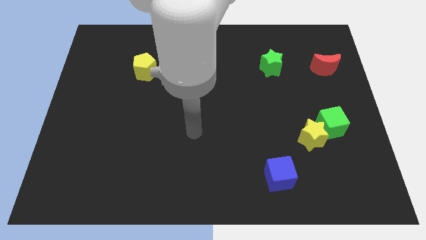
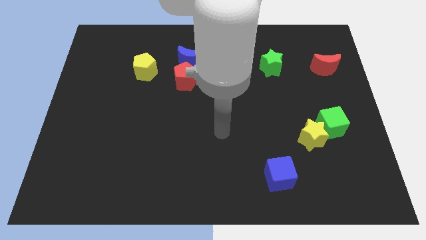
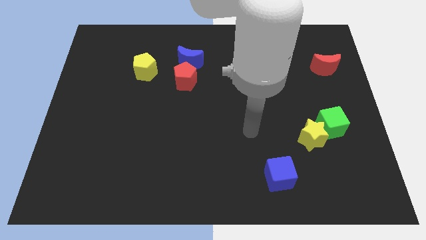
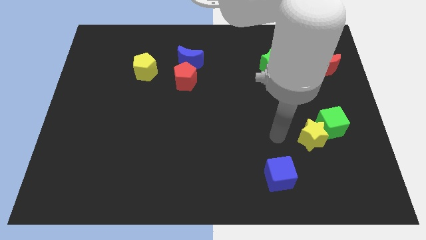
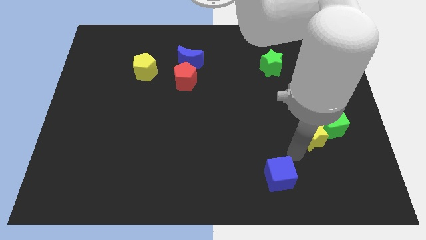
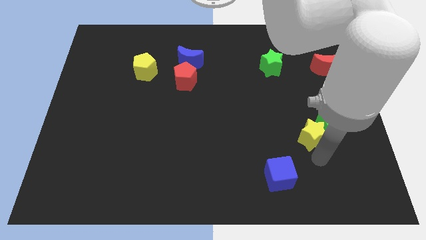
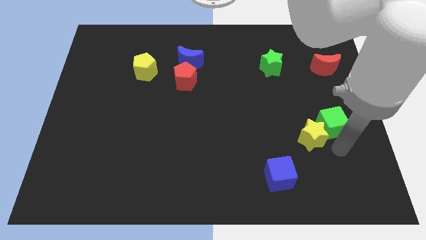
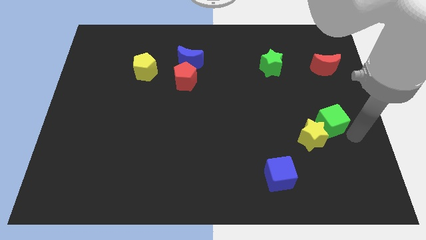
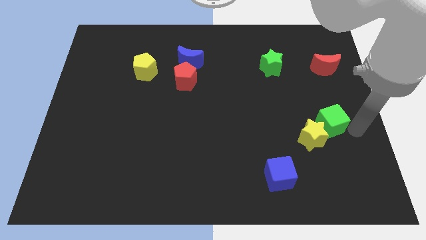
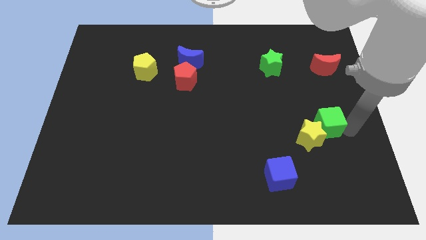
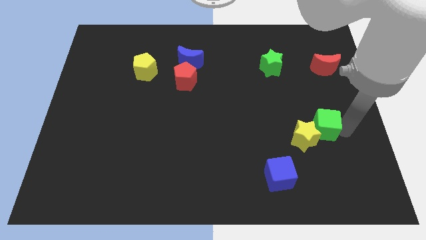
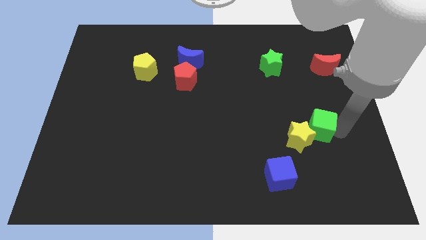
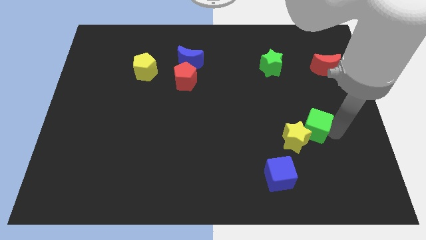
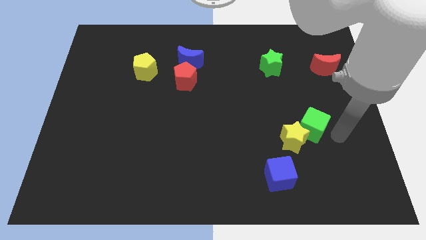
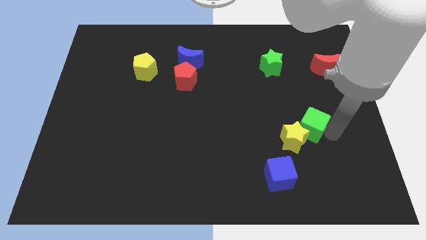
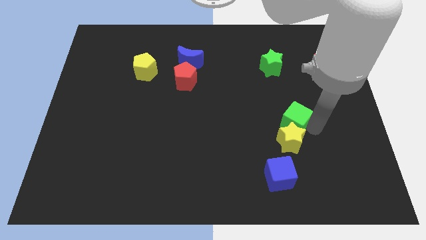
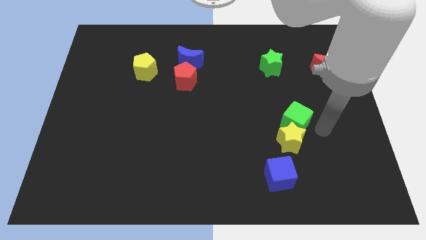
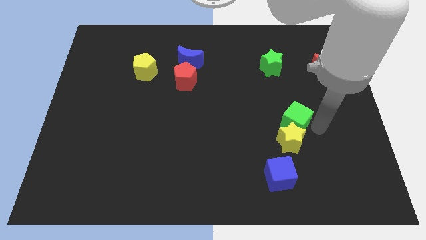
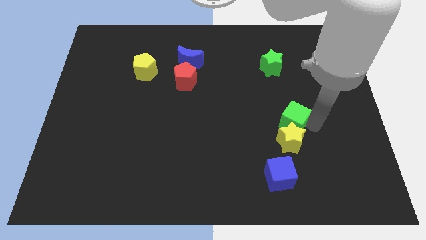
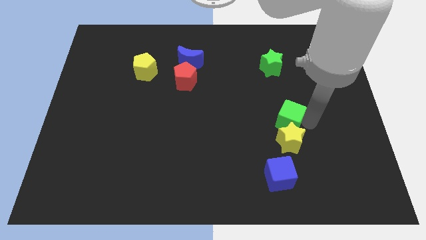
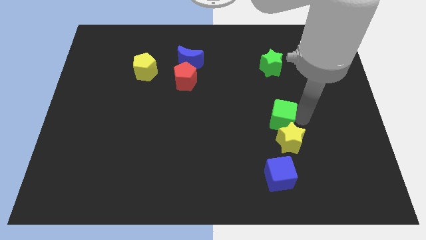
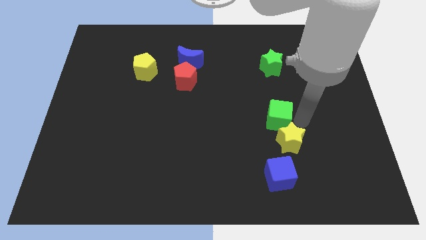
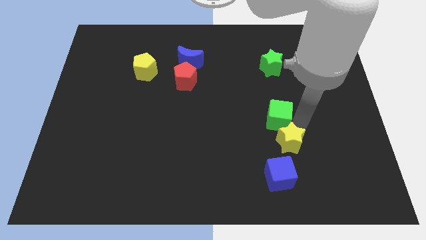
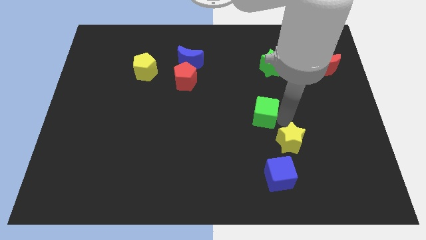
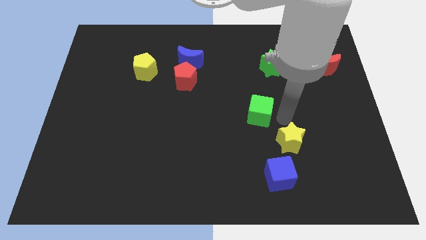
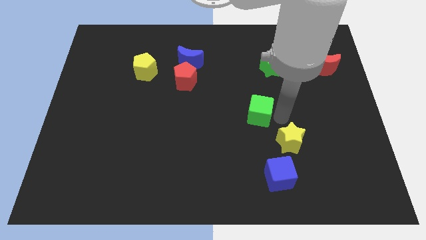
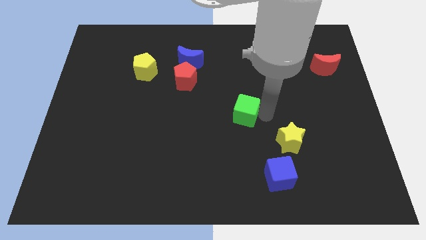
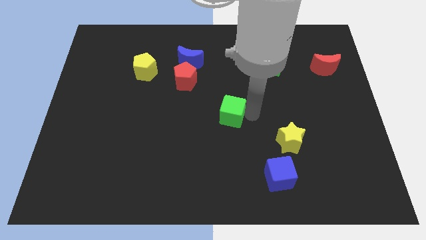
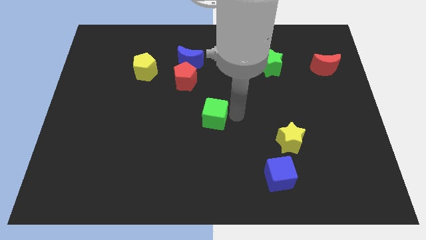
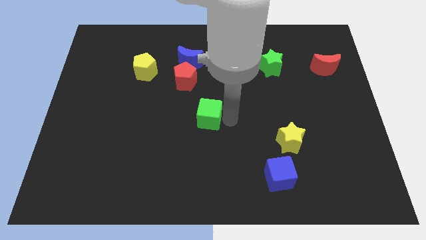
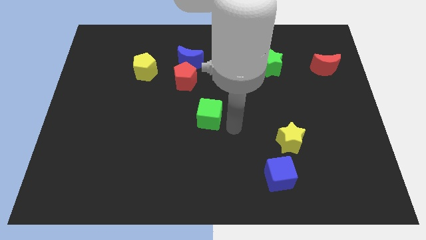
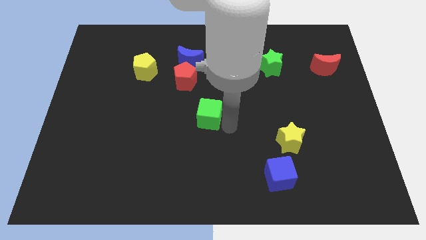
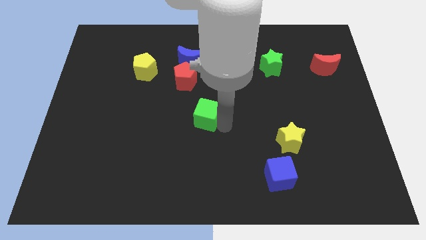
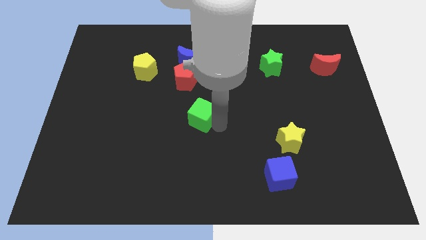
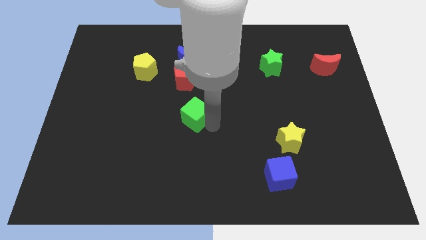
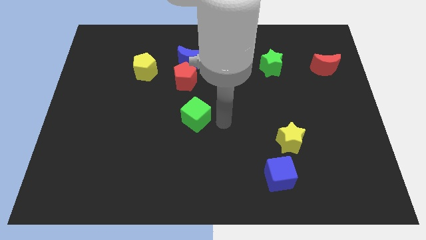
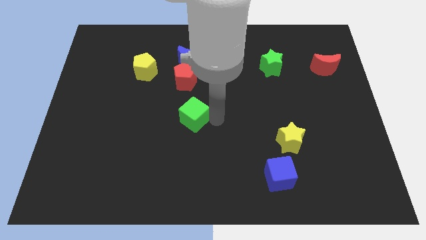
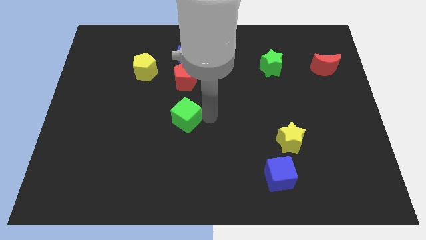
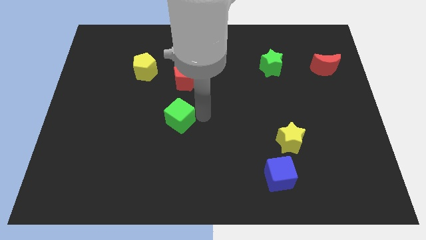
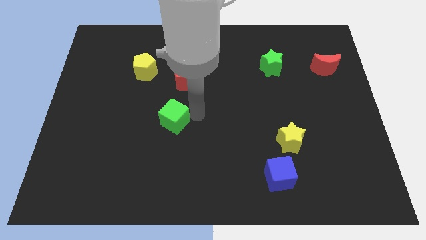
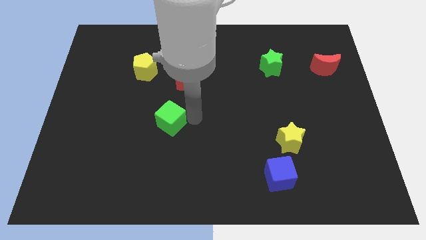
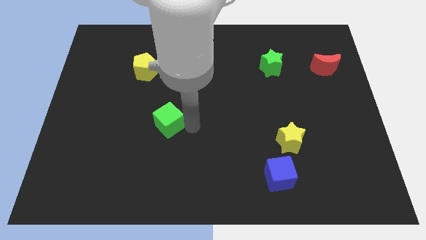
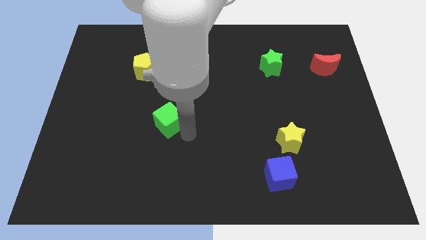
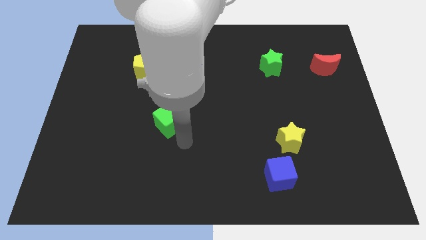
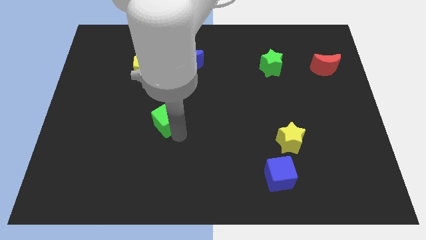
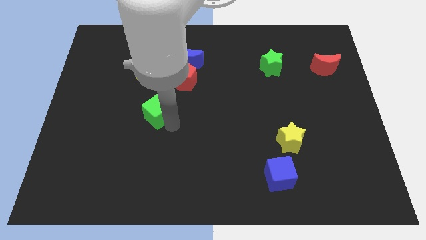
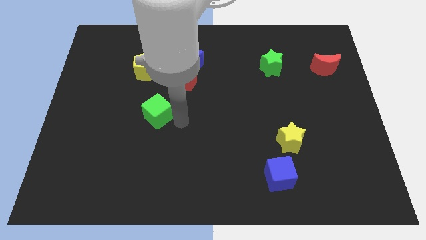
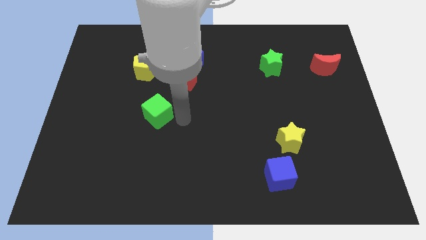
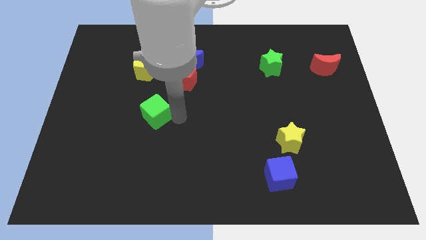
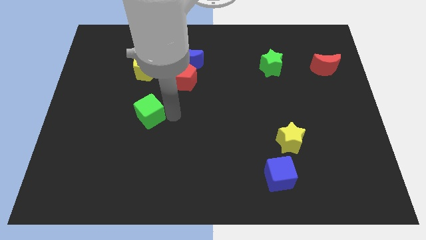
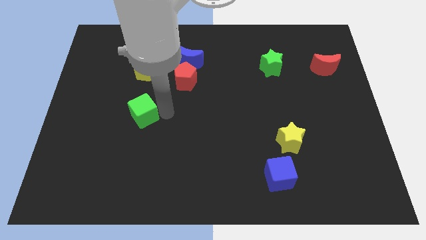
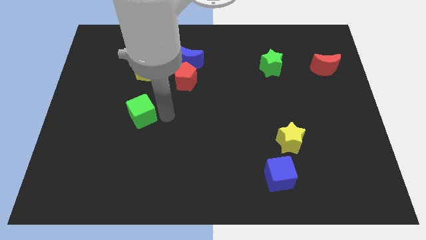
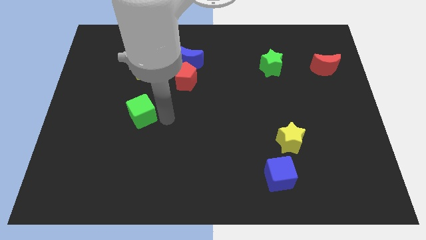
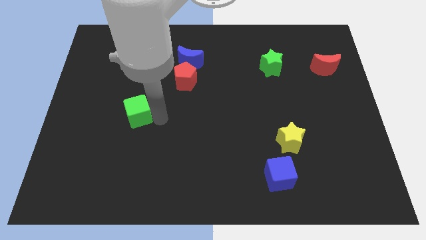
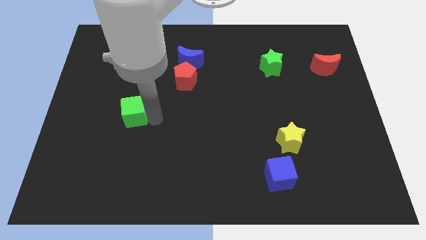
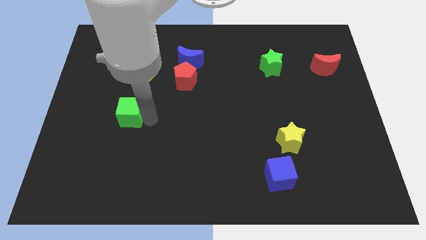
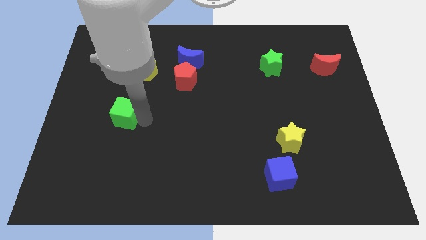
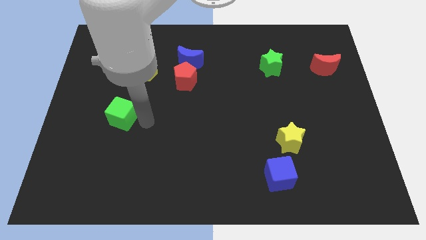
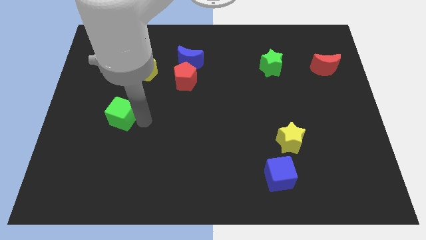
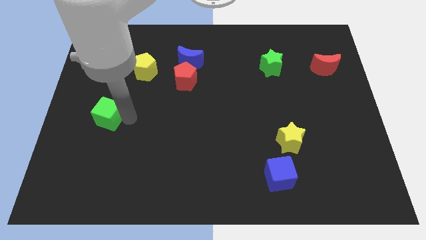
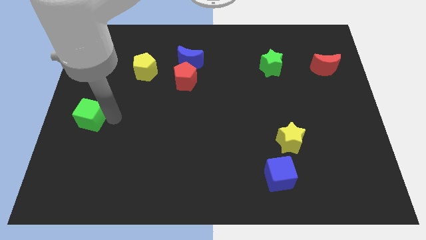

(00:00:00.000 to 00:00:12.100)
move the green cube to the left side
